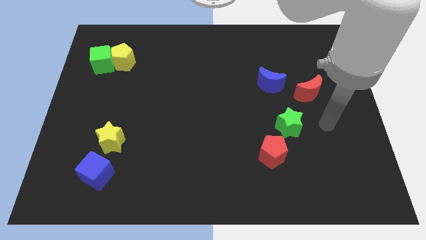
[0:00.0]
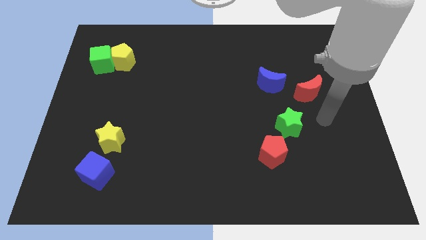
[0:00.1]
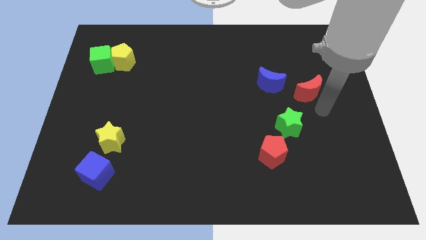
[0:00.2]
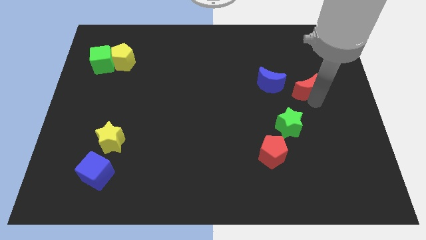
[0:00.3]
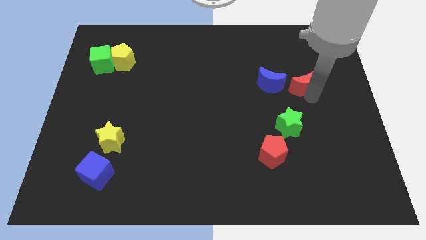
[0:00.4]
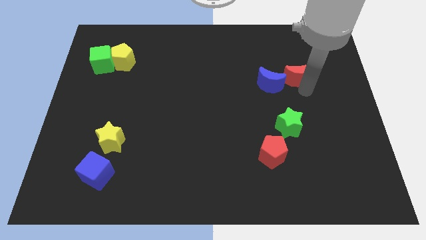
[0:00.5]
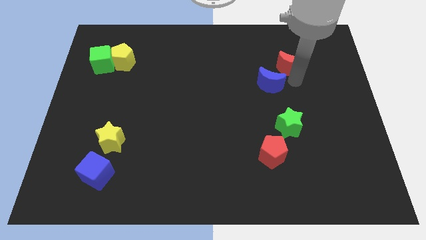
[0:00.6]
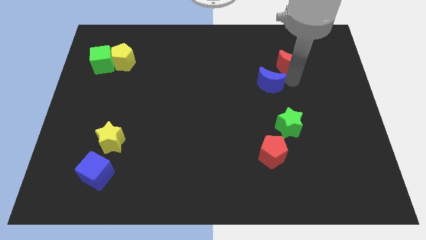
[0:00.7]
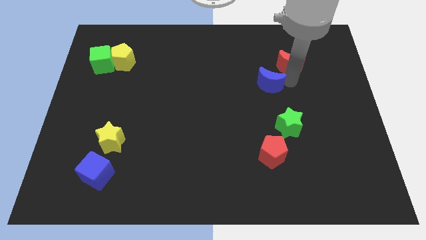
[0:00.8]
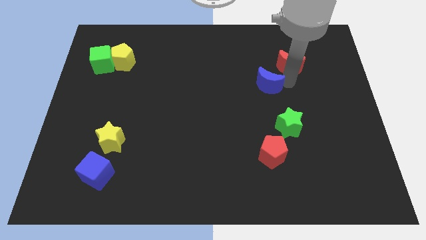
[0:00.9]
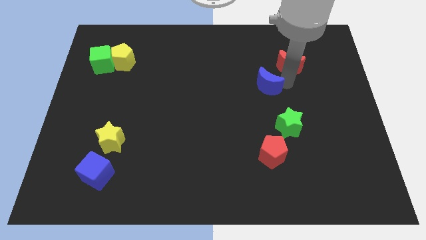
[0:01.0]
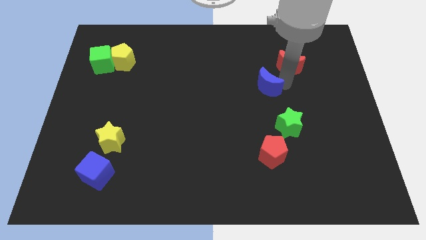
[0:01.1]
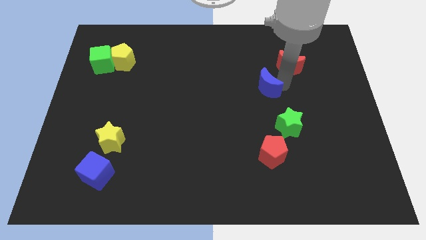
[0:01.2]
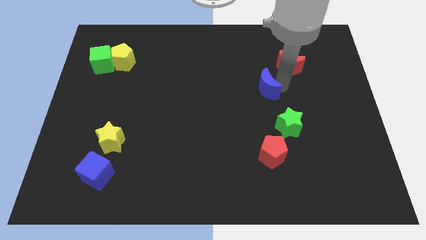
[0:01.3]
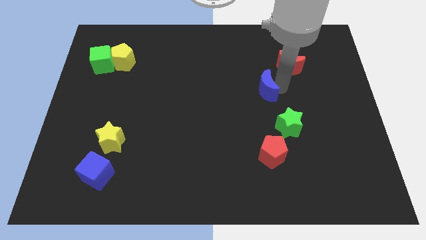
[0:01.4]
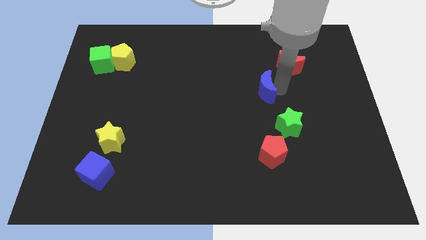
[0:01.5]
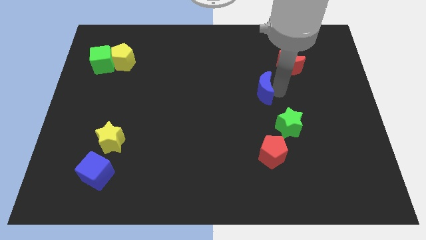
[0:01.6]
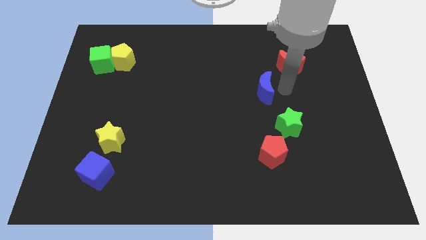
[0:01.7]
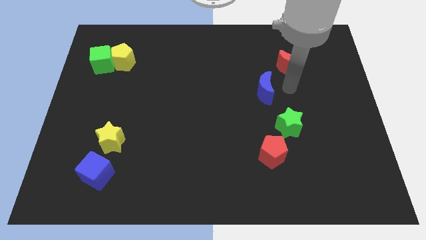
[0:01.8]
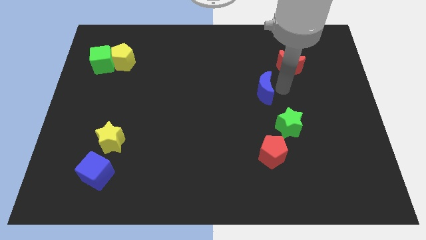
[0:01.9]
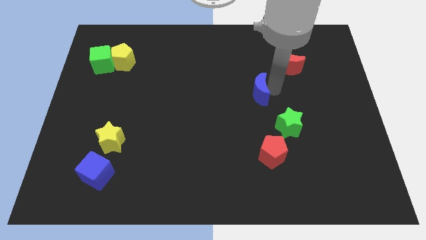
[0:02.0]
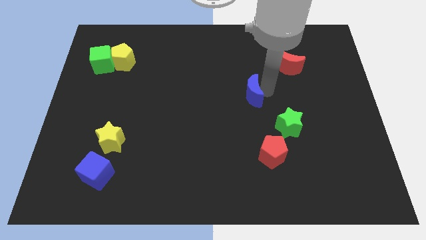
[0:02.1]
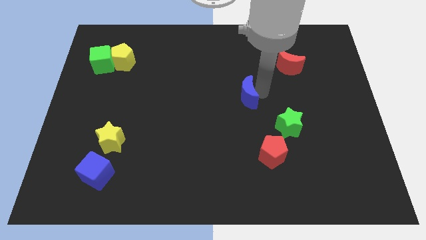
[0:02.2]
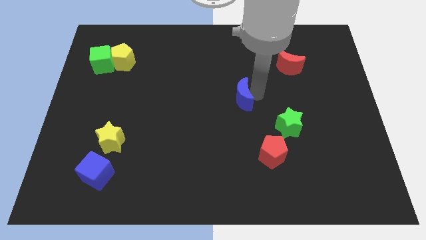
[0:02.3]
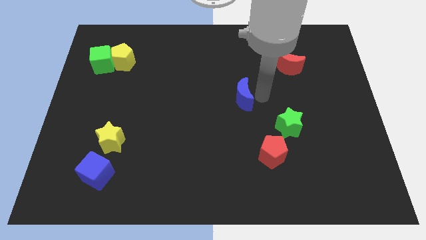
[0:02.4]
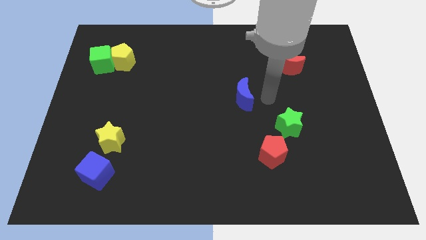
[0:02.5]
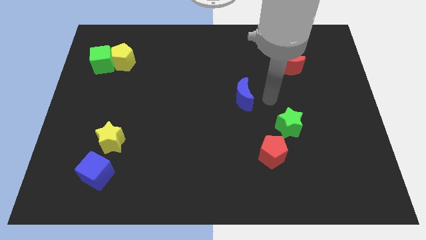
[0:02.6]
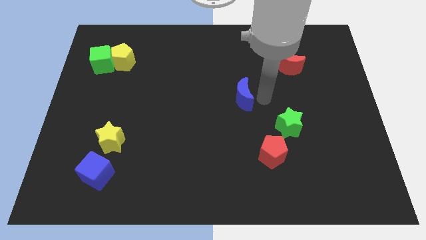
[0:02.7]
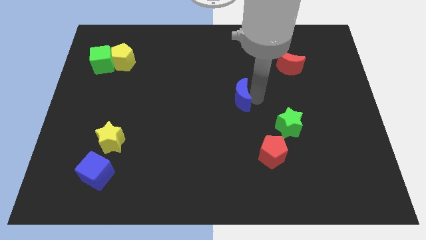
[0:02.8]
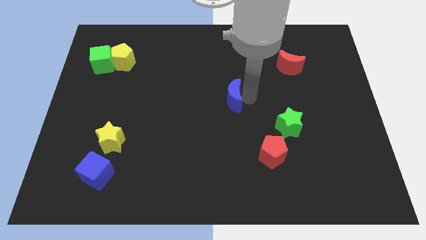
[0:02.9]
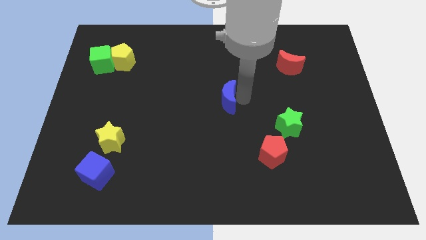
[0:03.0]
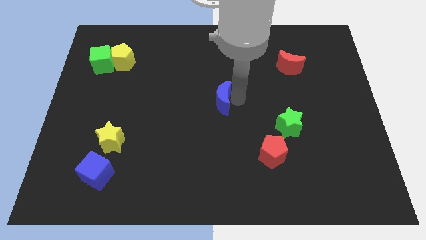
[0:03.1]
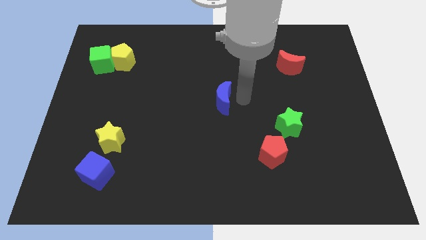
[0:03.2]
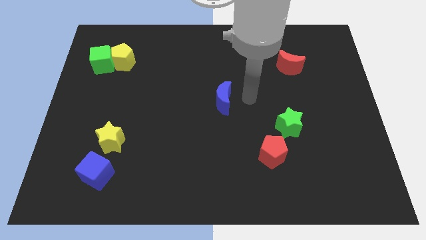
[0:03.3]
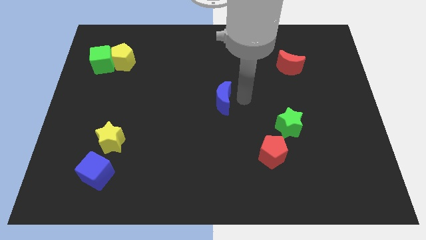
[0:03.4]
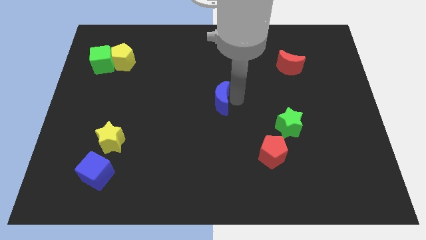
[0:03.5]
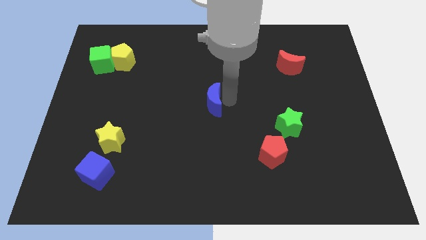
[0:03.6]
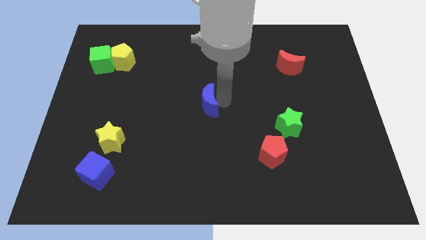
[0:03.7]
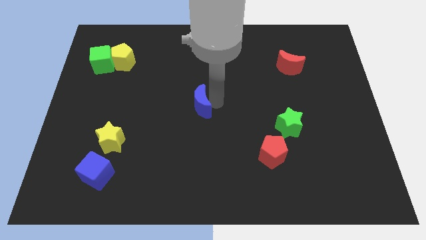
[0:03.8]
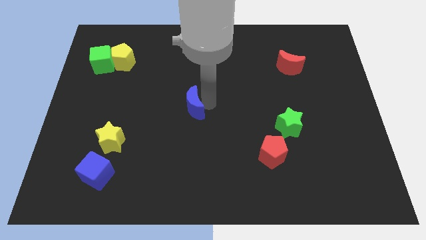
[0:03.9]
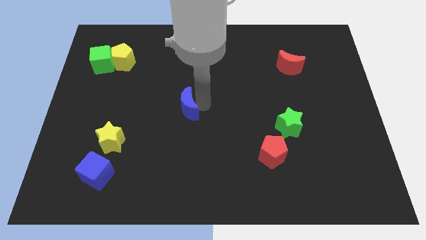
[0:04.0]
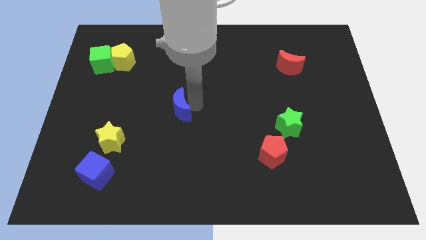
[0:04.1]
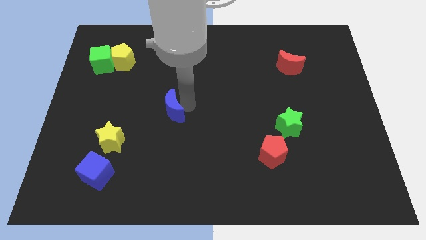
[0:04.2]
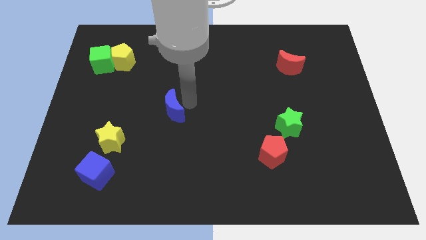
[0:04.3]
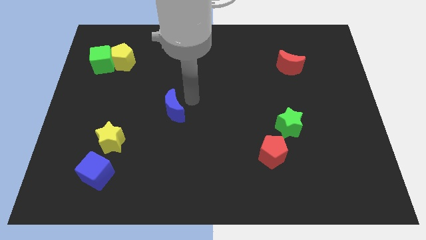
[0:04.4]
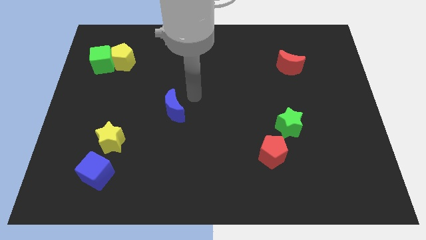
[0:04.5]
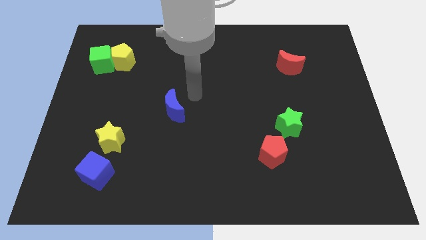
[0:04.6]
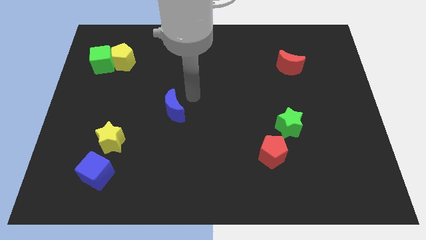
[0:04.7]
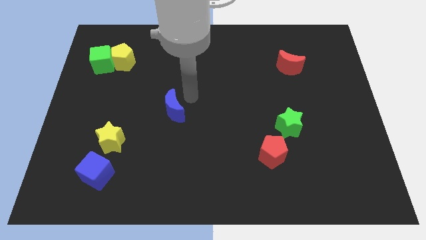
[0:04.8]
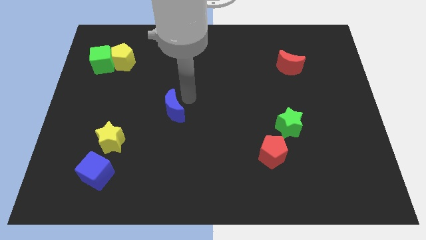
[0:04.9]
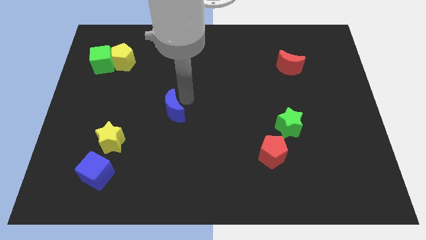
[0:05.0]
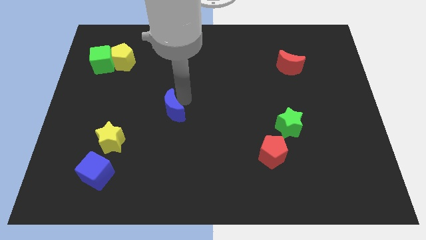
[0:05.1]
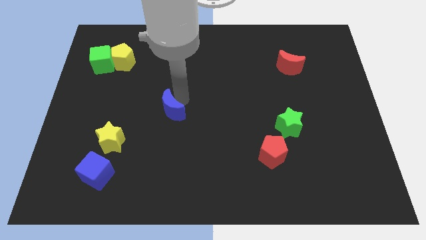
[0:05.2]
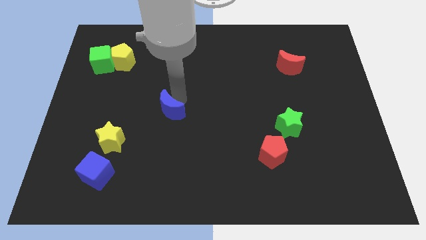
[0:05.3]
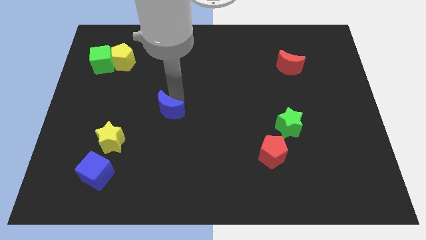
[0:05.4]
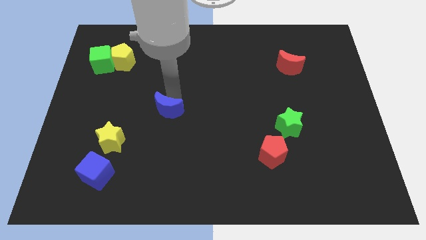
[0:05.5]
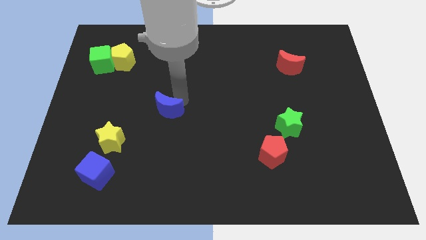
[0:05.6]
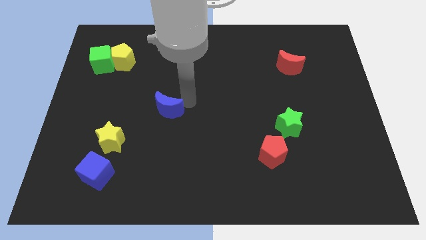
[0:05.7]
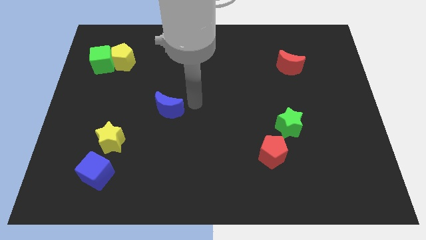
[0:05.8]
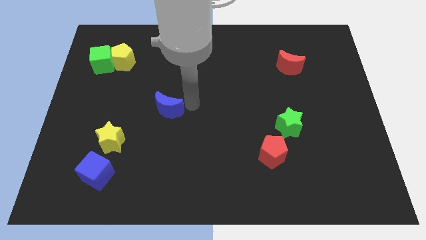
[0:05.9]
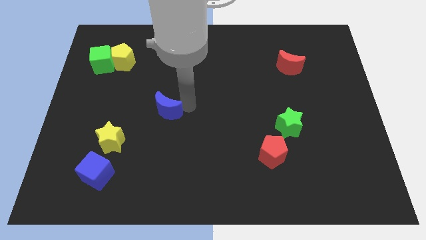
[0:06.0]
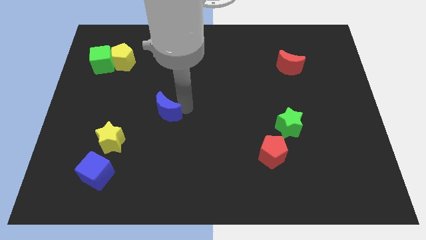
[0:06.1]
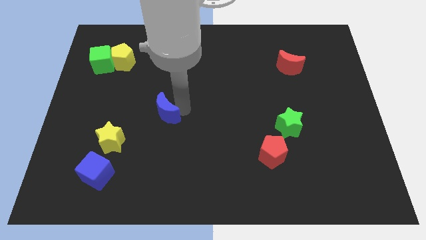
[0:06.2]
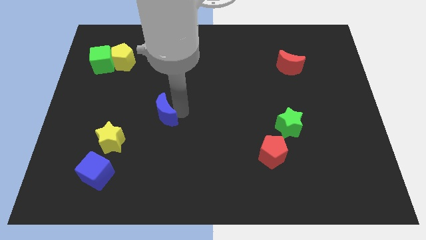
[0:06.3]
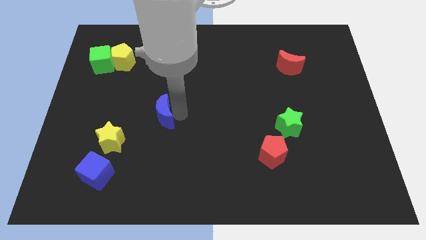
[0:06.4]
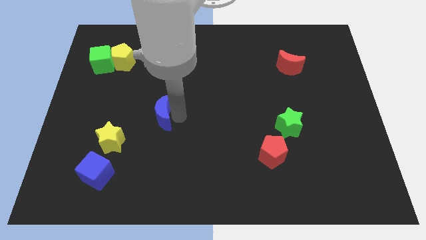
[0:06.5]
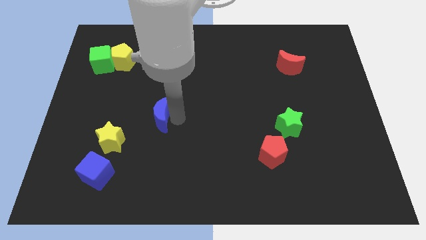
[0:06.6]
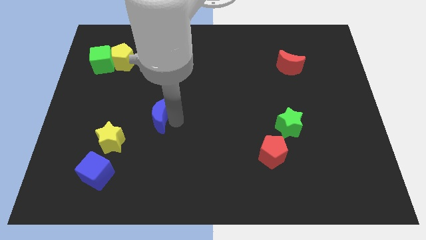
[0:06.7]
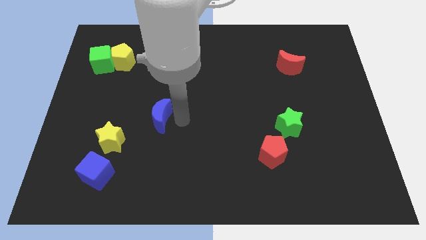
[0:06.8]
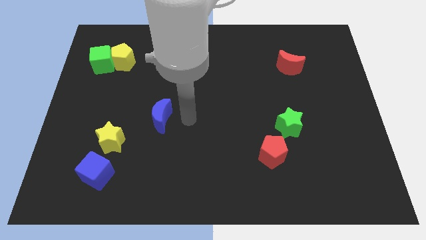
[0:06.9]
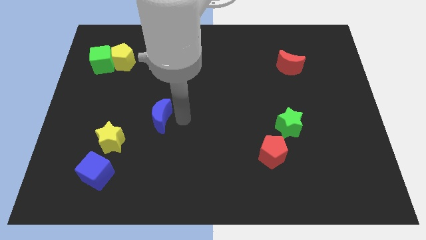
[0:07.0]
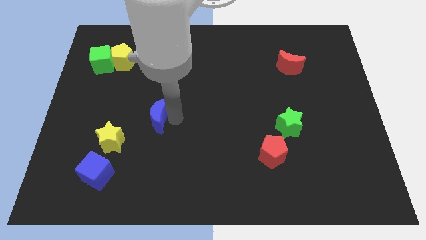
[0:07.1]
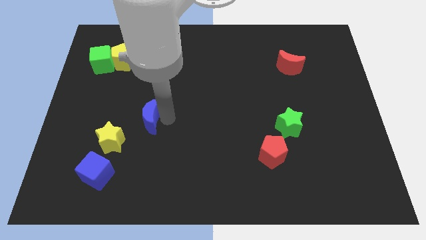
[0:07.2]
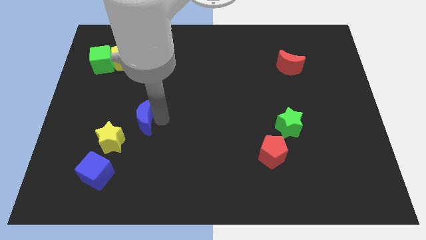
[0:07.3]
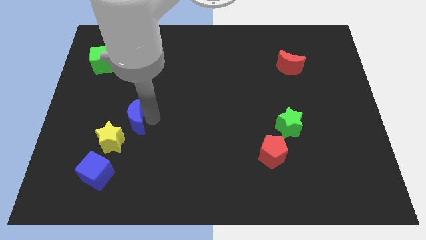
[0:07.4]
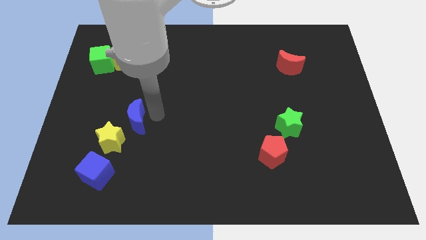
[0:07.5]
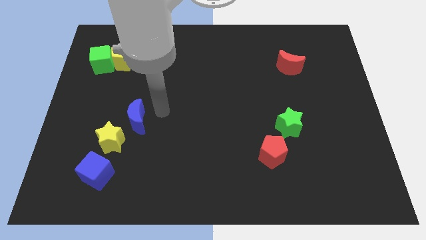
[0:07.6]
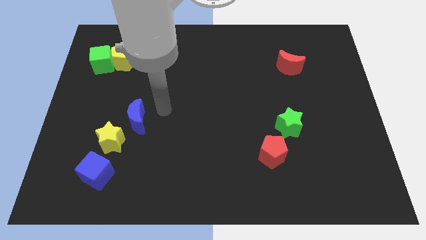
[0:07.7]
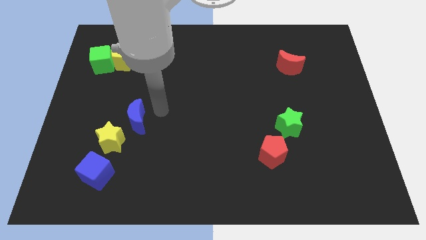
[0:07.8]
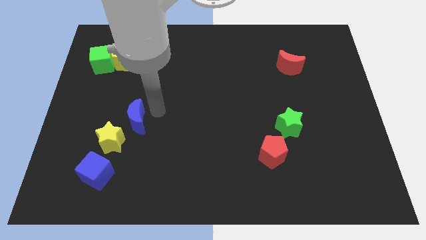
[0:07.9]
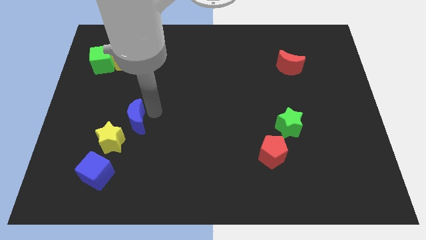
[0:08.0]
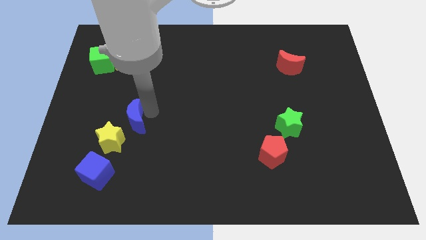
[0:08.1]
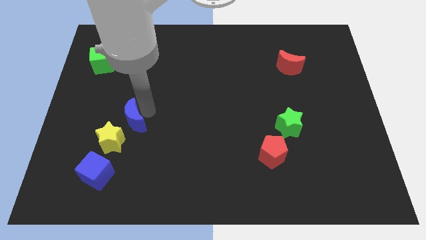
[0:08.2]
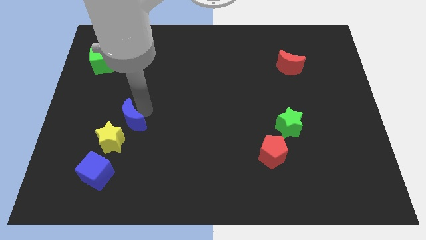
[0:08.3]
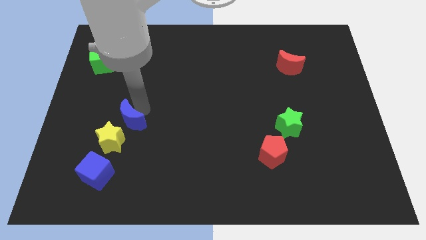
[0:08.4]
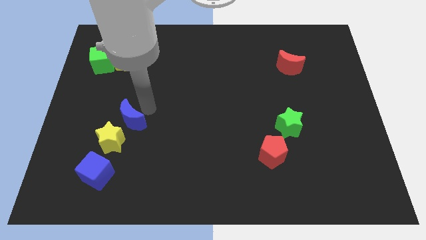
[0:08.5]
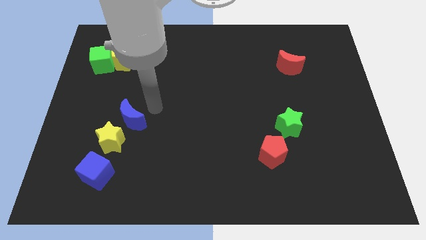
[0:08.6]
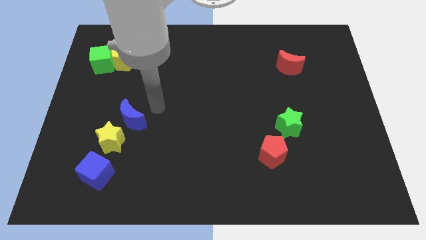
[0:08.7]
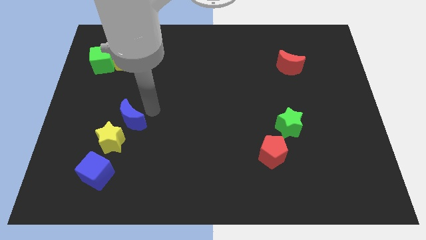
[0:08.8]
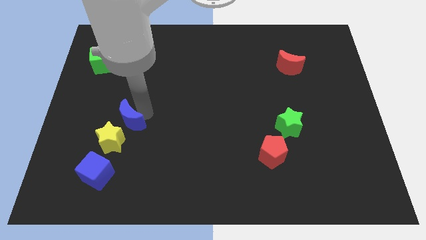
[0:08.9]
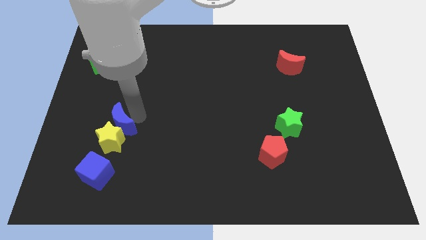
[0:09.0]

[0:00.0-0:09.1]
push the blue moon to the top of the blue cube
